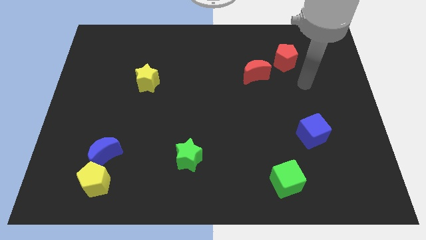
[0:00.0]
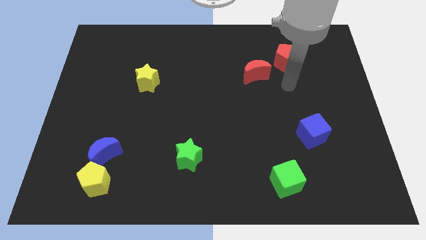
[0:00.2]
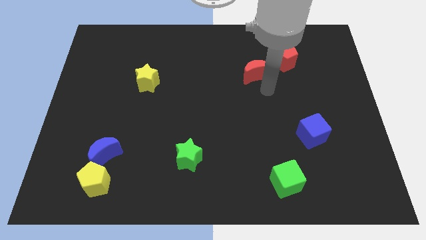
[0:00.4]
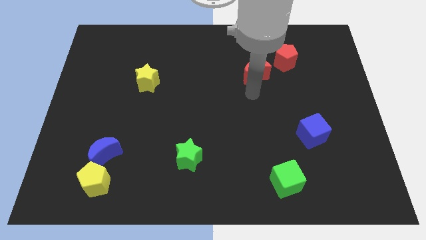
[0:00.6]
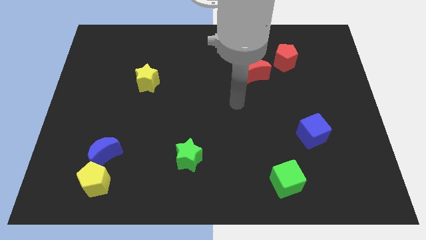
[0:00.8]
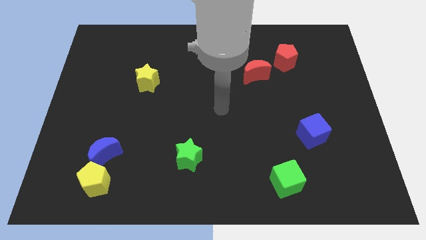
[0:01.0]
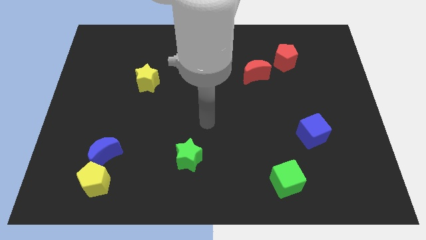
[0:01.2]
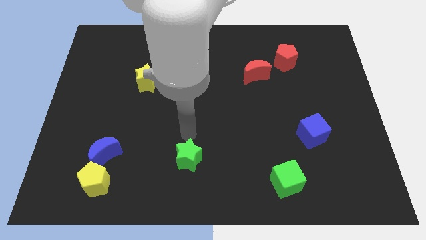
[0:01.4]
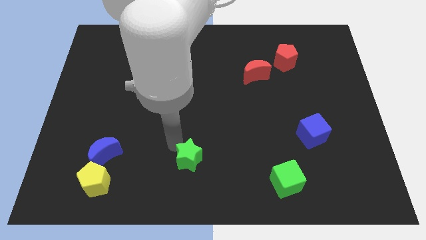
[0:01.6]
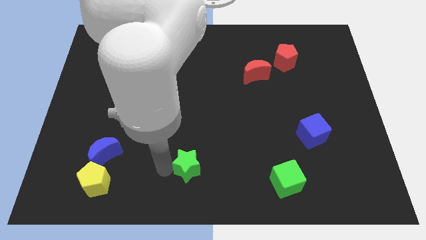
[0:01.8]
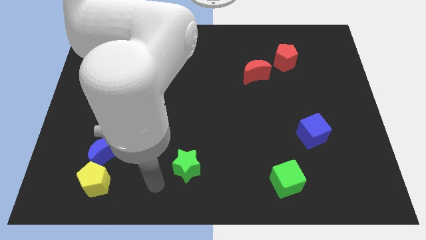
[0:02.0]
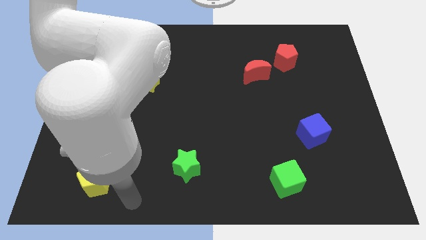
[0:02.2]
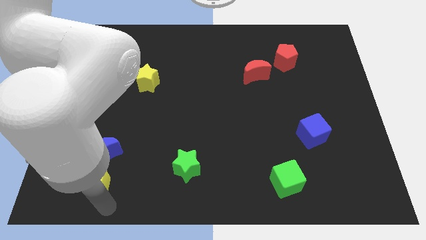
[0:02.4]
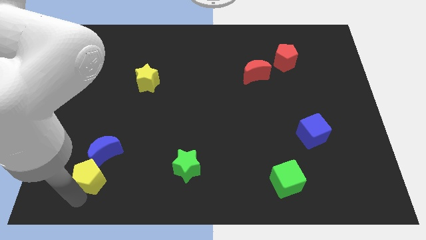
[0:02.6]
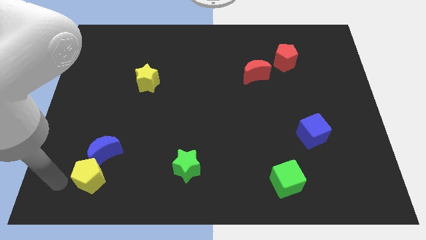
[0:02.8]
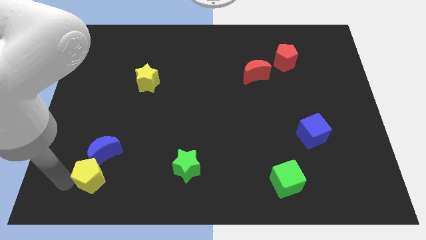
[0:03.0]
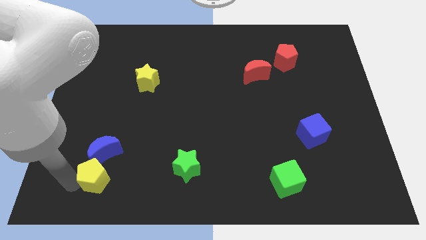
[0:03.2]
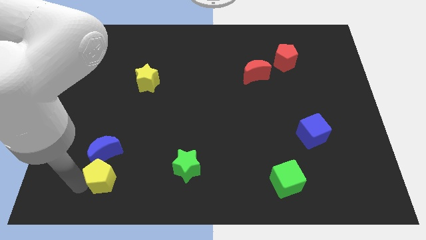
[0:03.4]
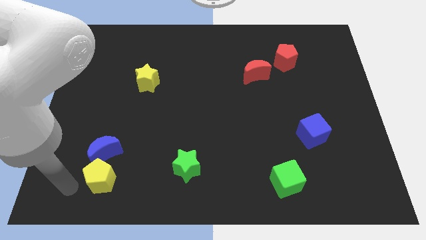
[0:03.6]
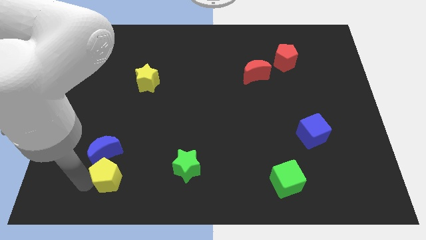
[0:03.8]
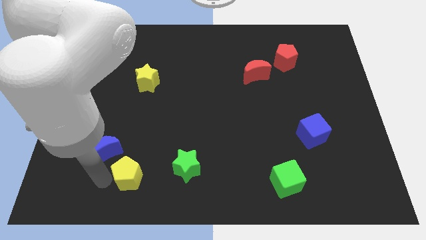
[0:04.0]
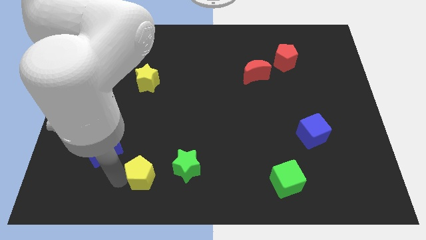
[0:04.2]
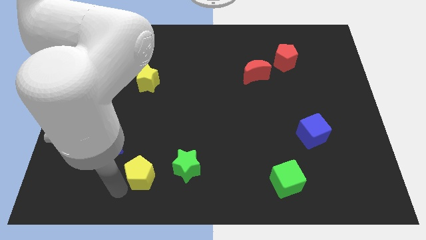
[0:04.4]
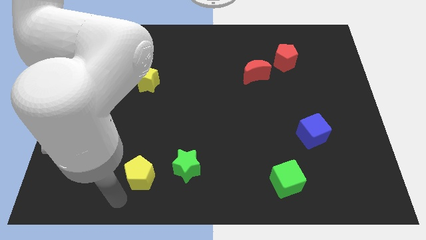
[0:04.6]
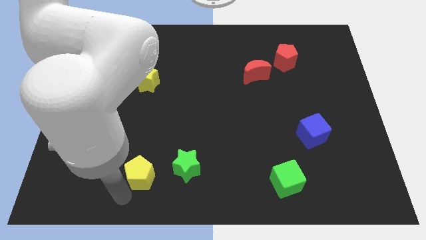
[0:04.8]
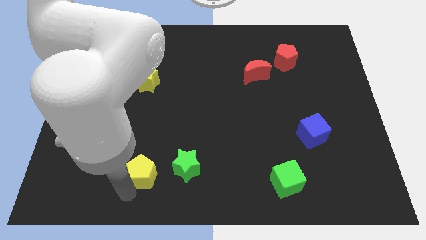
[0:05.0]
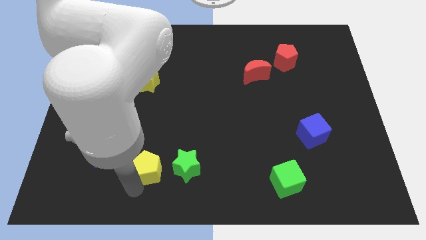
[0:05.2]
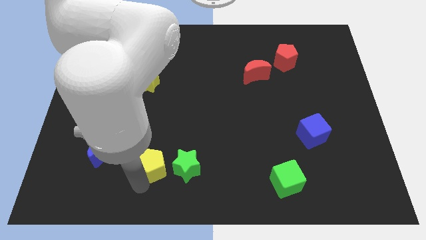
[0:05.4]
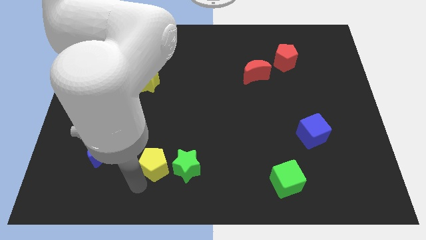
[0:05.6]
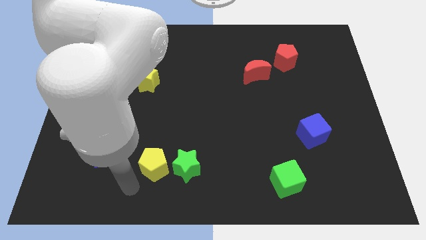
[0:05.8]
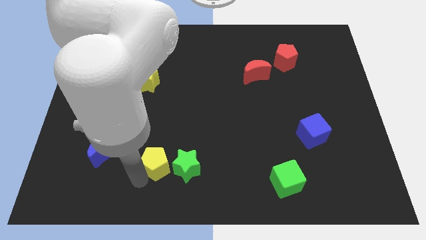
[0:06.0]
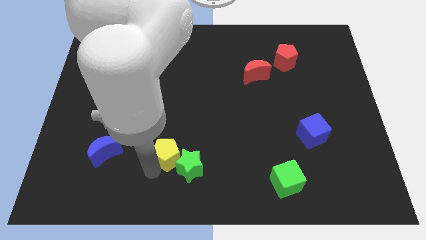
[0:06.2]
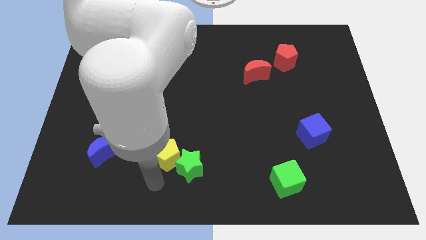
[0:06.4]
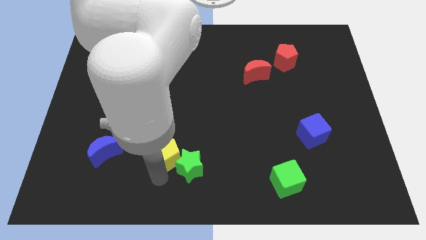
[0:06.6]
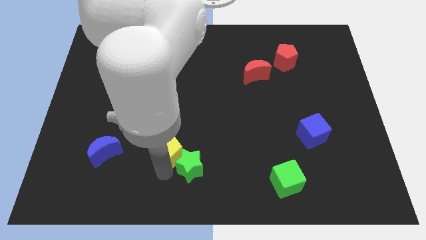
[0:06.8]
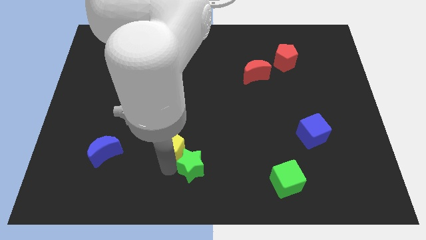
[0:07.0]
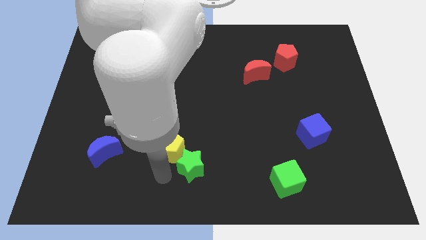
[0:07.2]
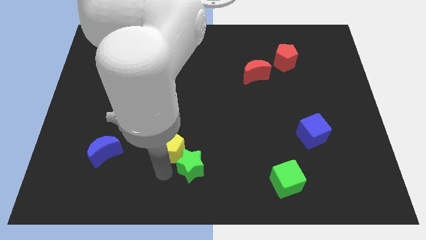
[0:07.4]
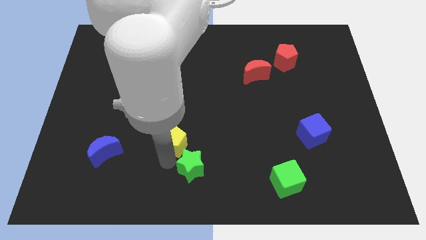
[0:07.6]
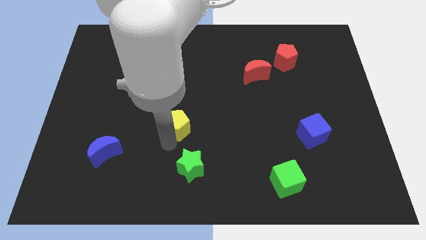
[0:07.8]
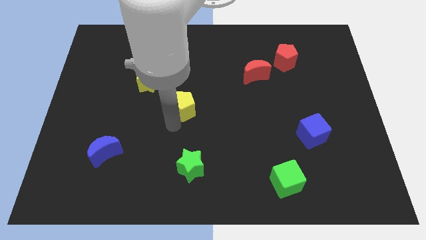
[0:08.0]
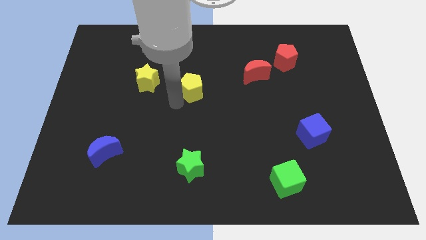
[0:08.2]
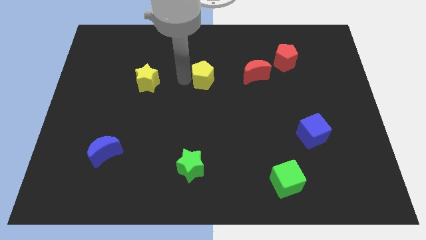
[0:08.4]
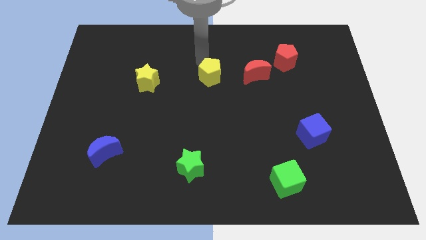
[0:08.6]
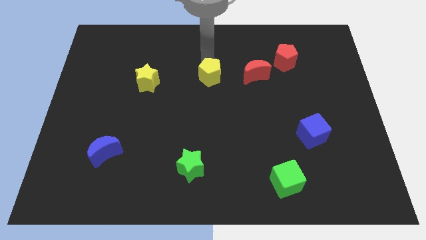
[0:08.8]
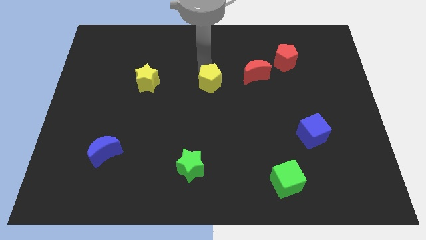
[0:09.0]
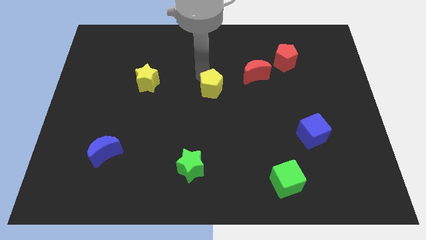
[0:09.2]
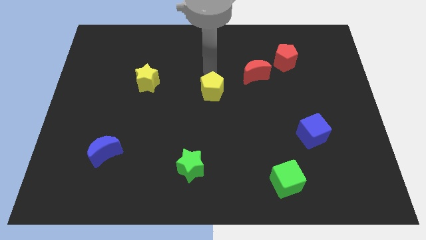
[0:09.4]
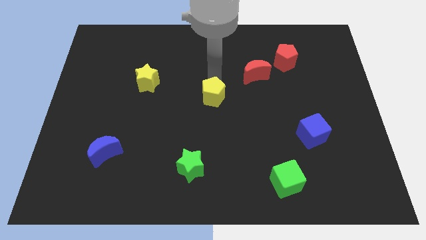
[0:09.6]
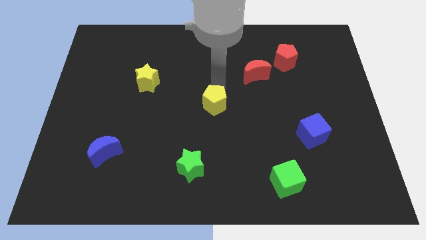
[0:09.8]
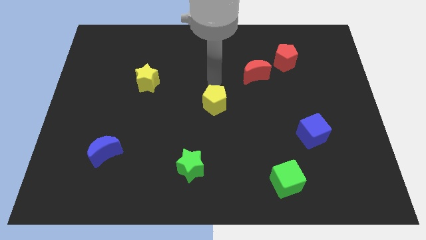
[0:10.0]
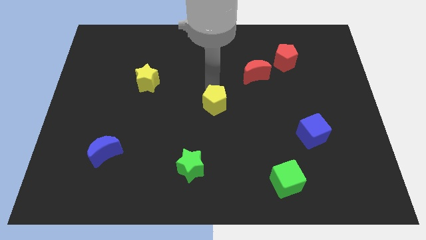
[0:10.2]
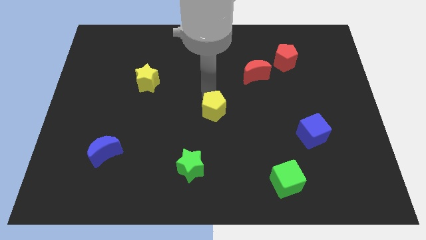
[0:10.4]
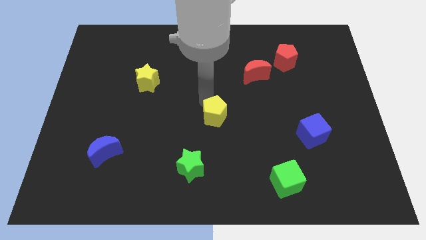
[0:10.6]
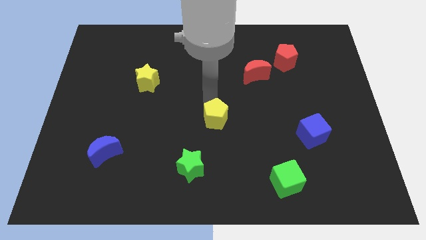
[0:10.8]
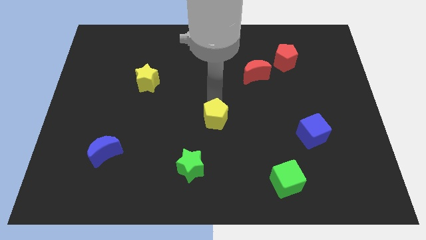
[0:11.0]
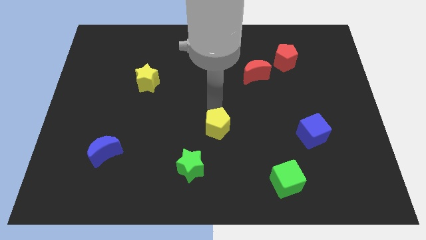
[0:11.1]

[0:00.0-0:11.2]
put the yellow pentagon diagonally up and to the right of the green star

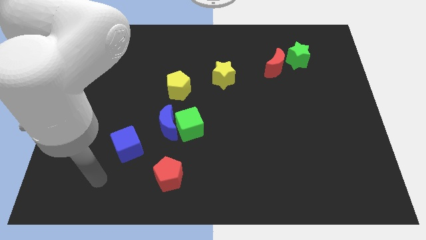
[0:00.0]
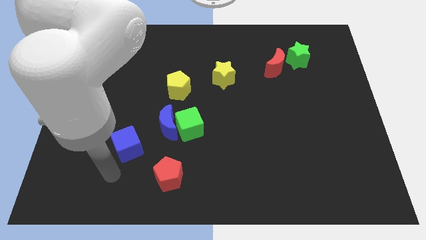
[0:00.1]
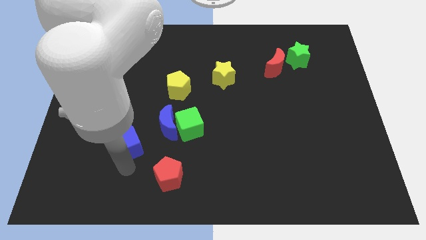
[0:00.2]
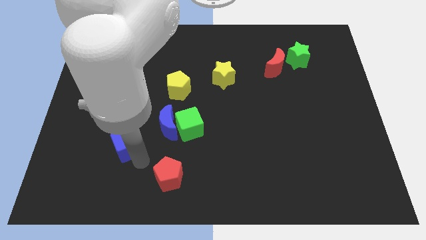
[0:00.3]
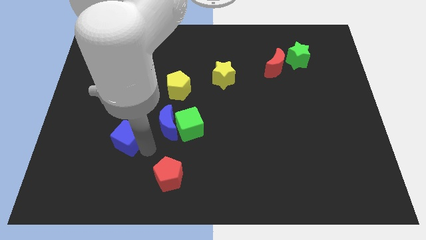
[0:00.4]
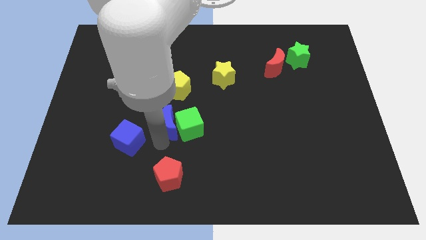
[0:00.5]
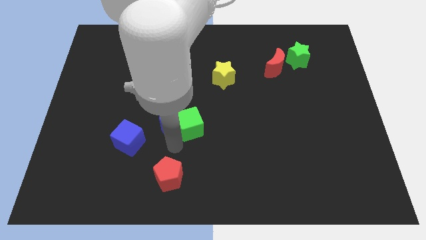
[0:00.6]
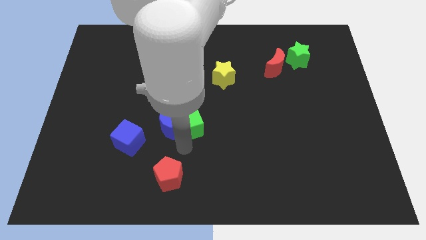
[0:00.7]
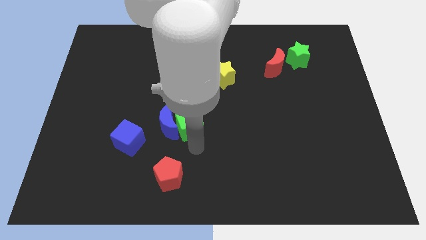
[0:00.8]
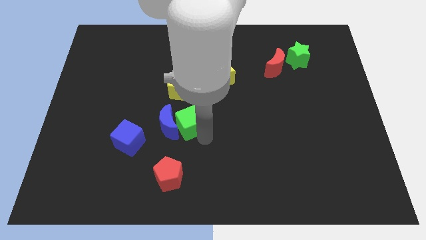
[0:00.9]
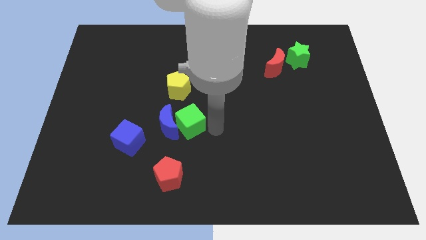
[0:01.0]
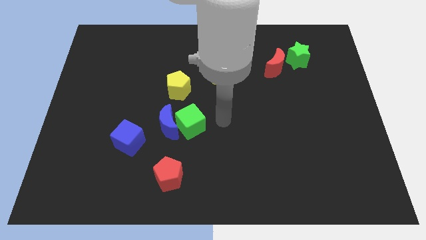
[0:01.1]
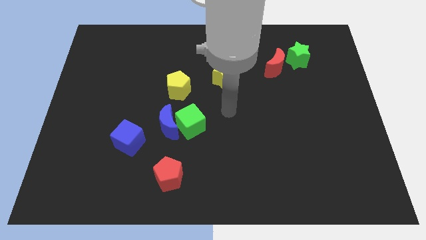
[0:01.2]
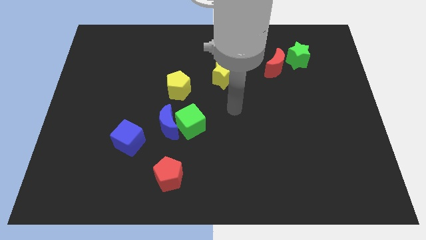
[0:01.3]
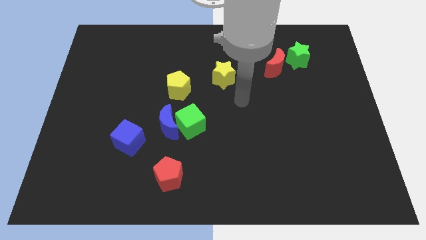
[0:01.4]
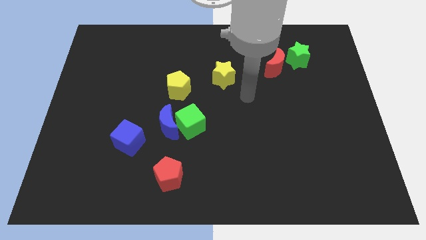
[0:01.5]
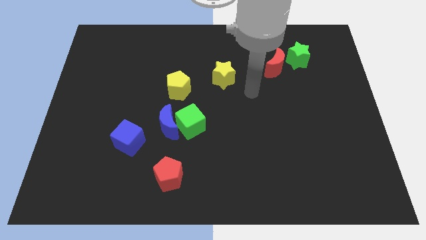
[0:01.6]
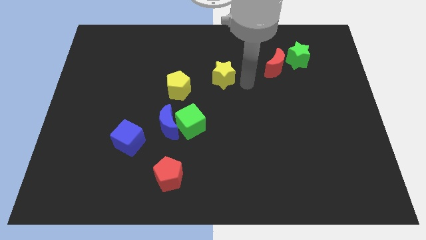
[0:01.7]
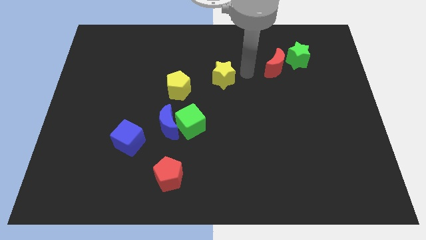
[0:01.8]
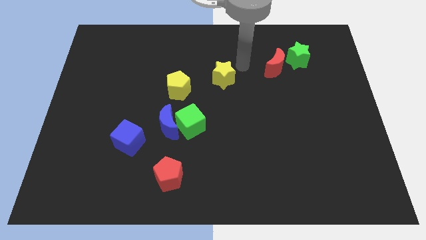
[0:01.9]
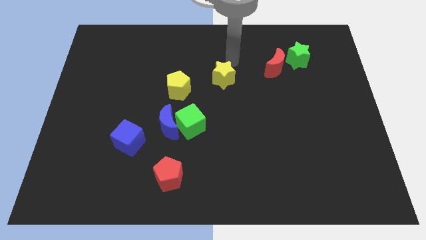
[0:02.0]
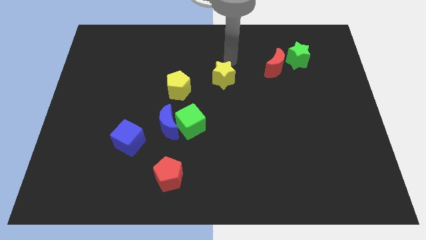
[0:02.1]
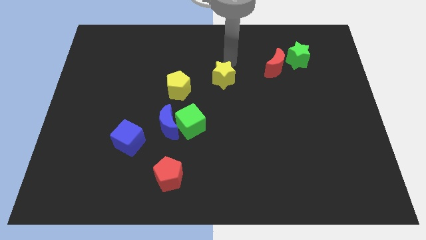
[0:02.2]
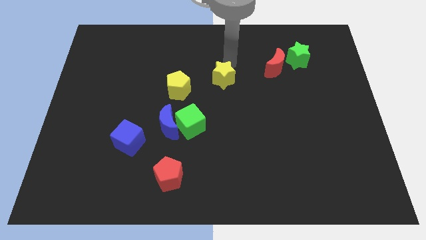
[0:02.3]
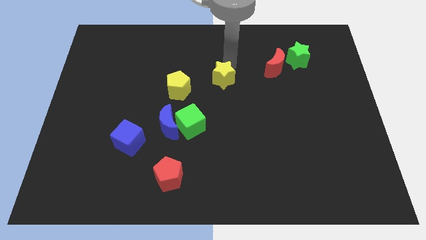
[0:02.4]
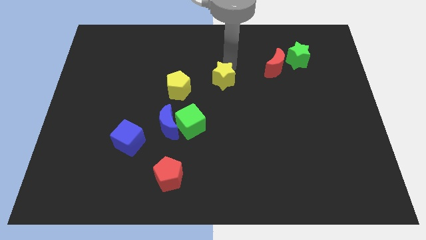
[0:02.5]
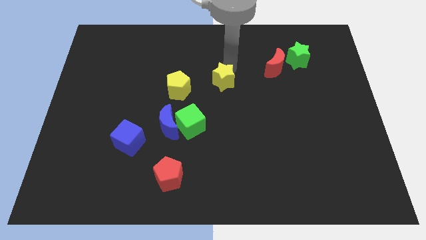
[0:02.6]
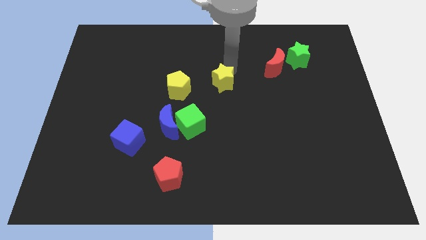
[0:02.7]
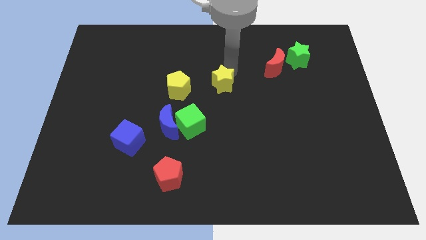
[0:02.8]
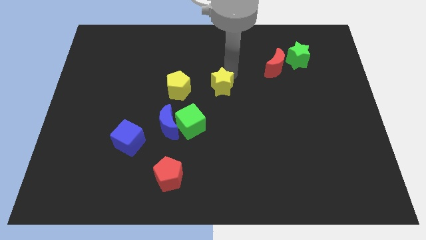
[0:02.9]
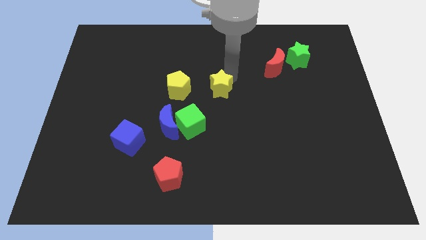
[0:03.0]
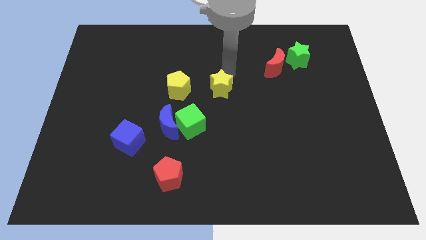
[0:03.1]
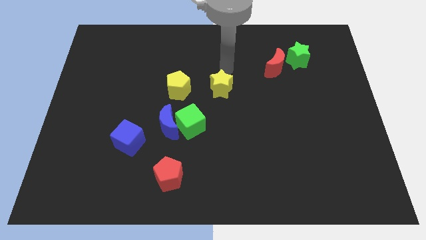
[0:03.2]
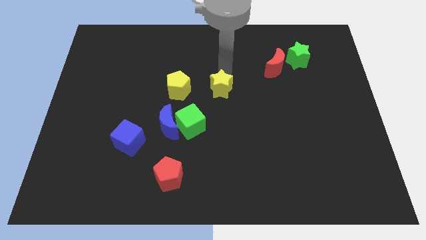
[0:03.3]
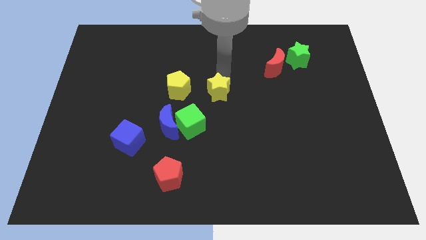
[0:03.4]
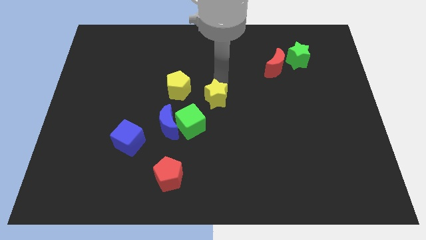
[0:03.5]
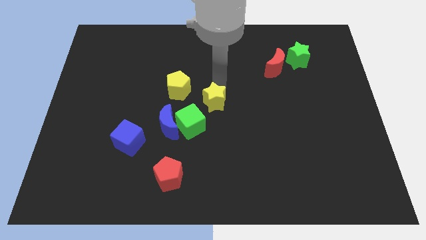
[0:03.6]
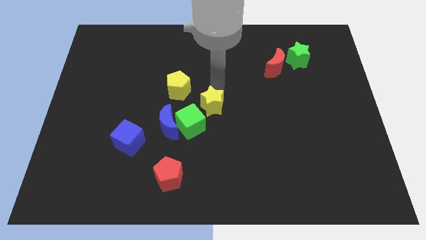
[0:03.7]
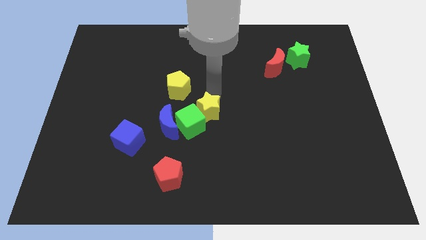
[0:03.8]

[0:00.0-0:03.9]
put the yellow star just right of the blue moon
